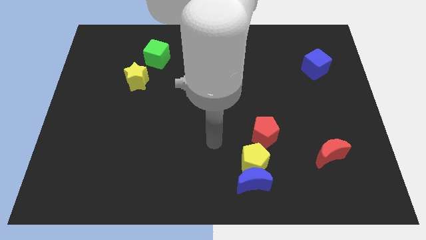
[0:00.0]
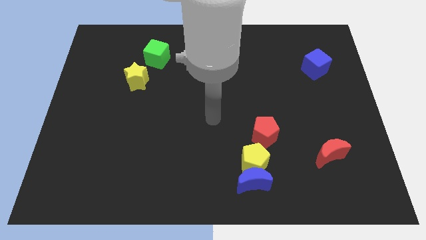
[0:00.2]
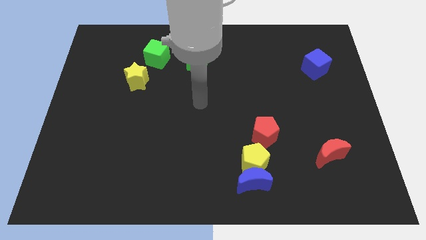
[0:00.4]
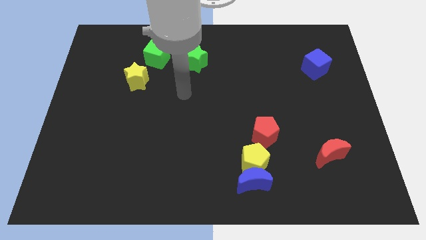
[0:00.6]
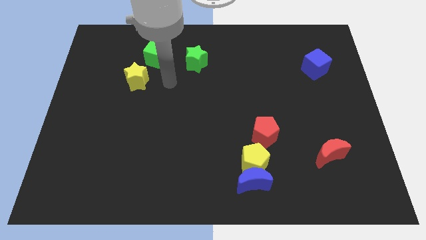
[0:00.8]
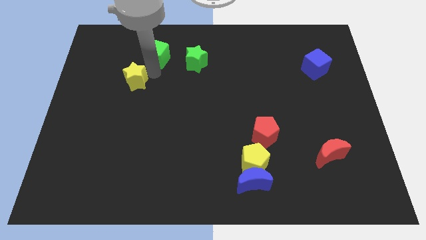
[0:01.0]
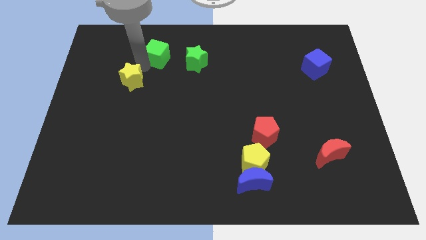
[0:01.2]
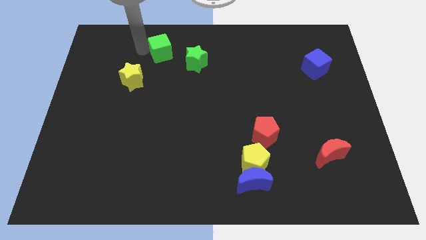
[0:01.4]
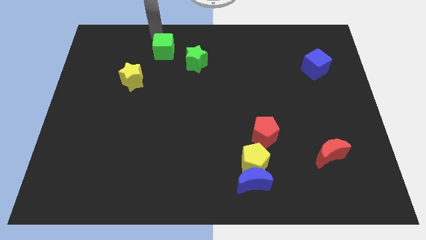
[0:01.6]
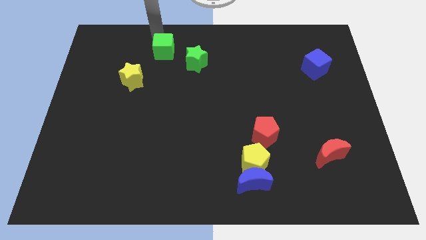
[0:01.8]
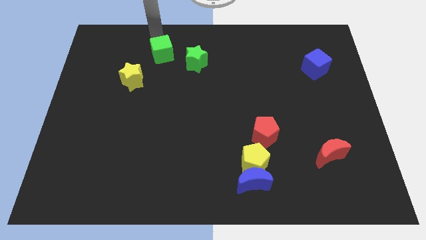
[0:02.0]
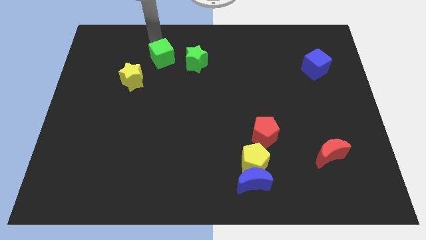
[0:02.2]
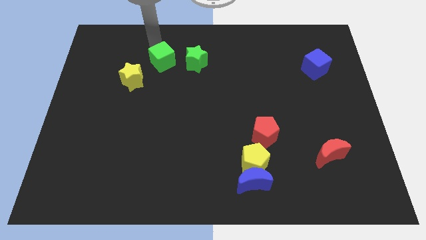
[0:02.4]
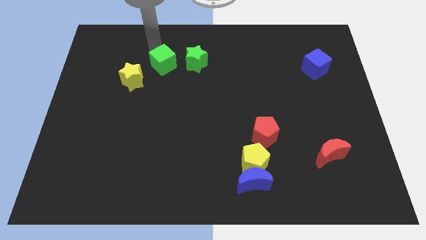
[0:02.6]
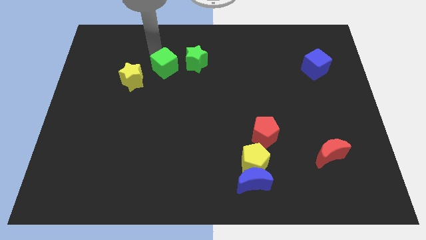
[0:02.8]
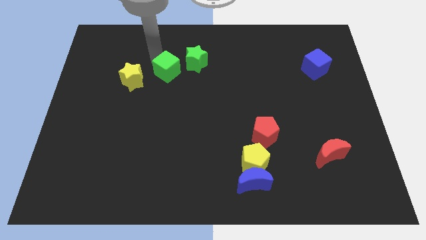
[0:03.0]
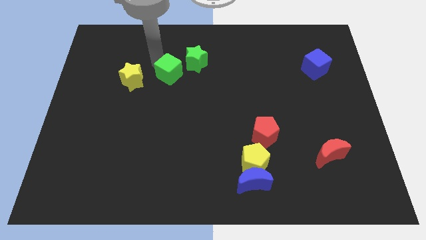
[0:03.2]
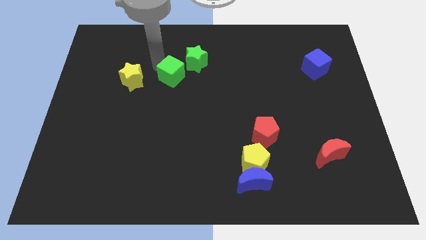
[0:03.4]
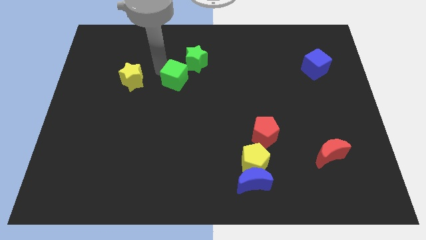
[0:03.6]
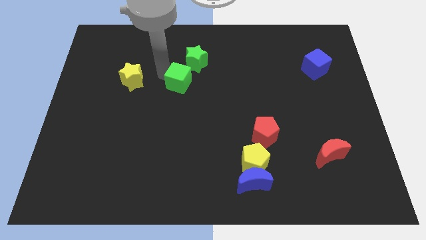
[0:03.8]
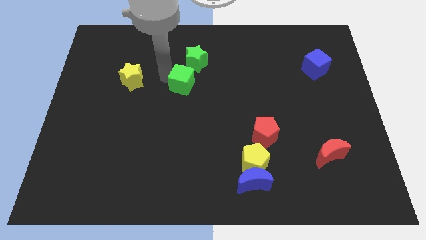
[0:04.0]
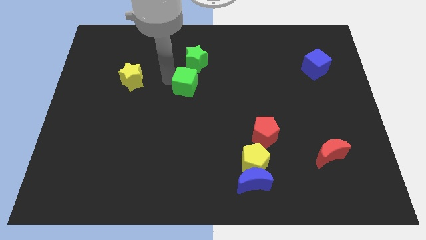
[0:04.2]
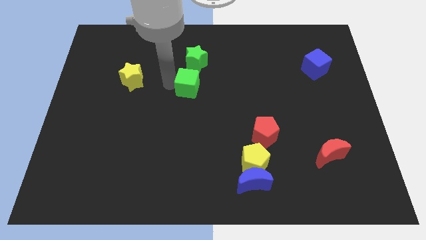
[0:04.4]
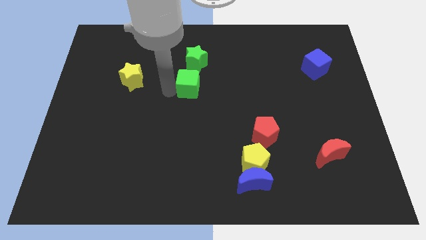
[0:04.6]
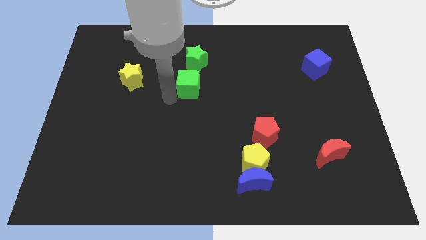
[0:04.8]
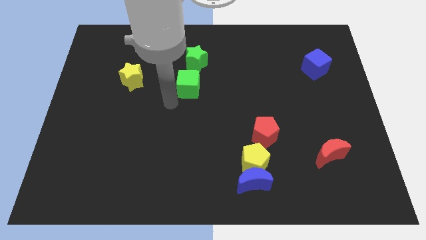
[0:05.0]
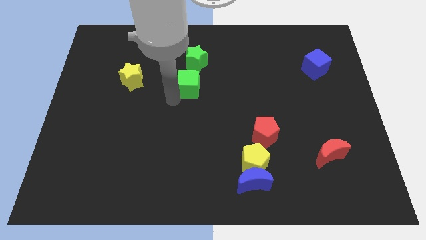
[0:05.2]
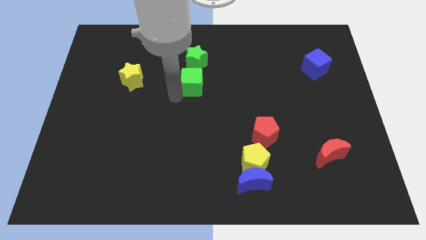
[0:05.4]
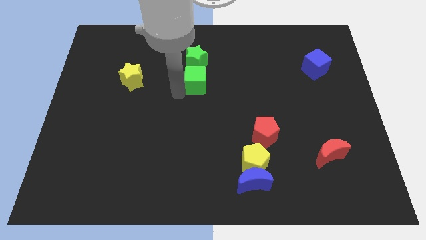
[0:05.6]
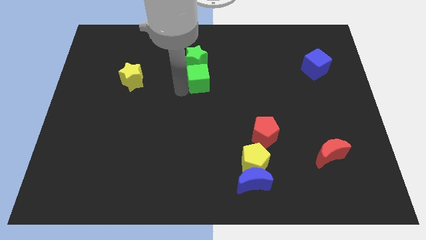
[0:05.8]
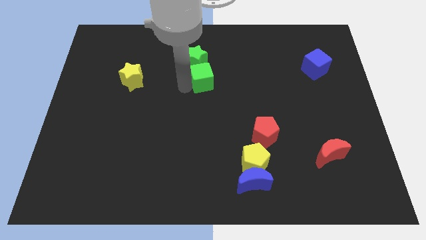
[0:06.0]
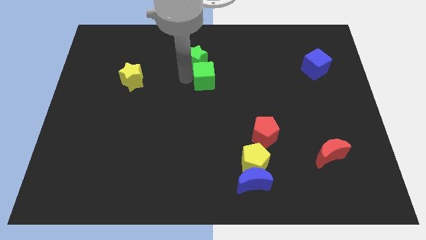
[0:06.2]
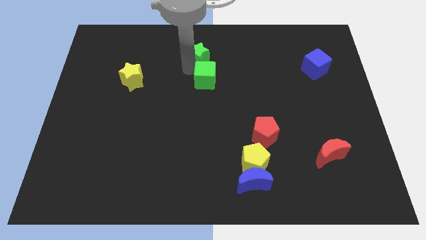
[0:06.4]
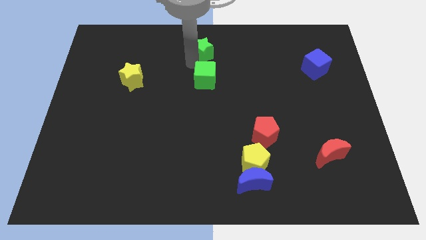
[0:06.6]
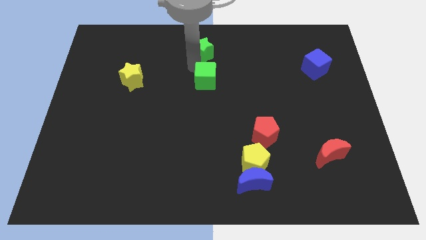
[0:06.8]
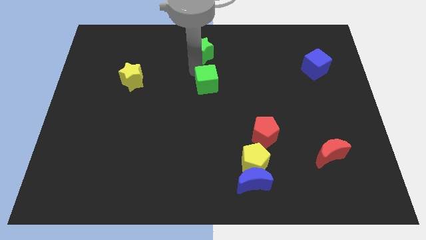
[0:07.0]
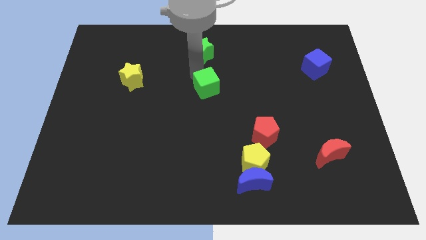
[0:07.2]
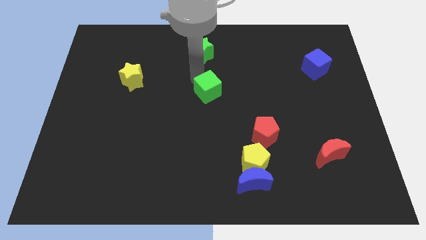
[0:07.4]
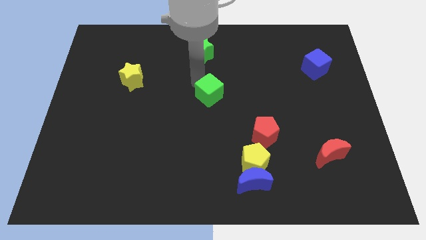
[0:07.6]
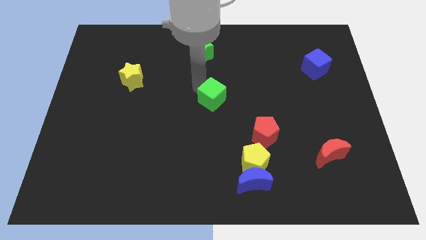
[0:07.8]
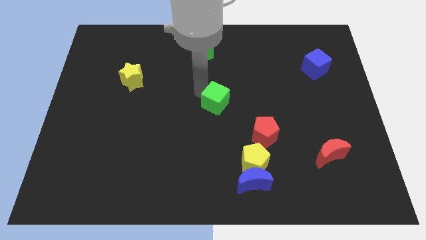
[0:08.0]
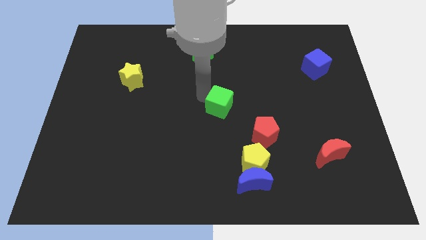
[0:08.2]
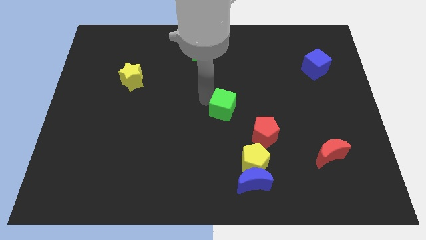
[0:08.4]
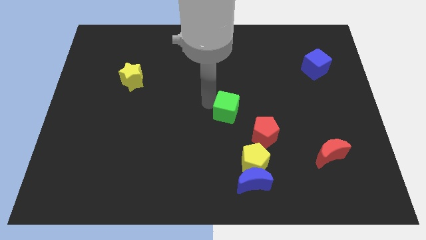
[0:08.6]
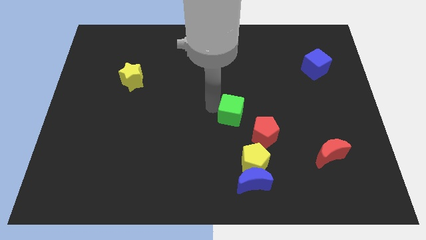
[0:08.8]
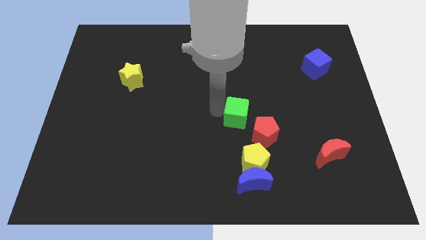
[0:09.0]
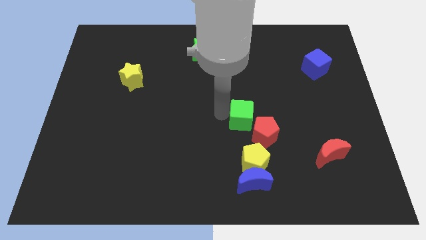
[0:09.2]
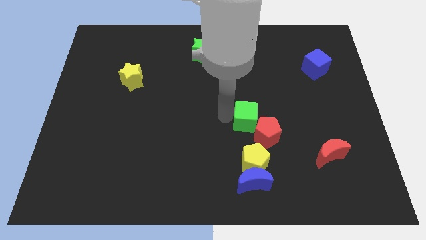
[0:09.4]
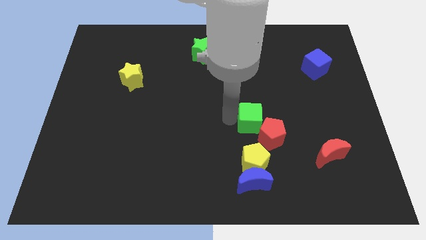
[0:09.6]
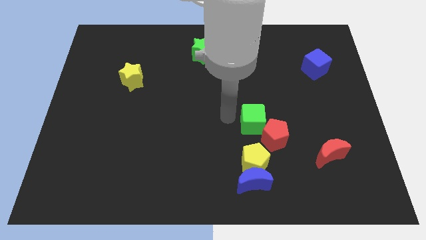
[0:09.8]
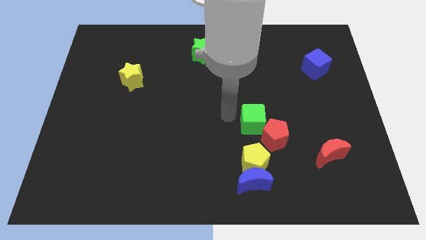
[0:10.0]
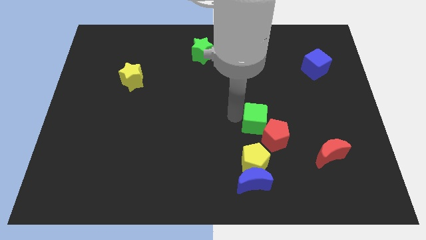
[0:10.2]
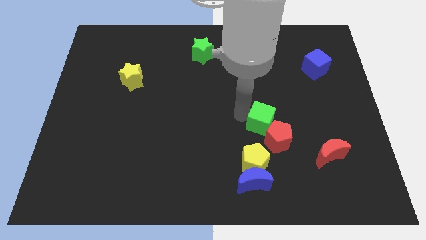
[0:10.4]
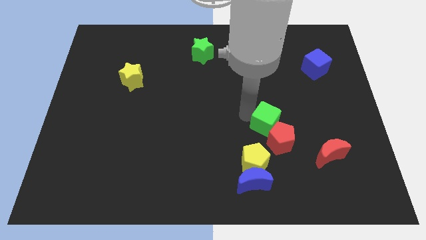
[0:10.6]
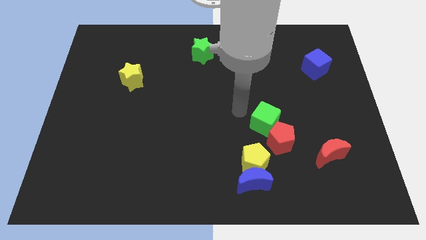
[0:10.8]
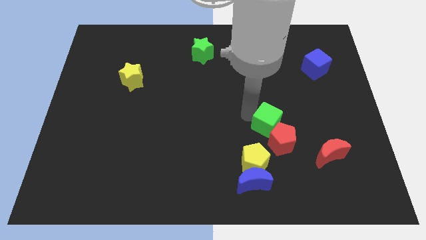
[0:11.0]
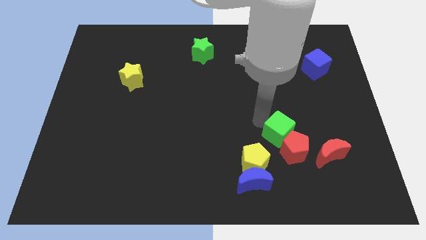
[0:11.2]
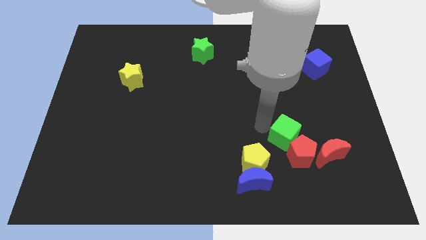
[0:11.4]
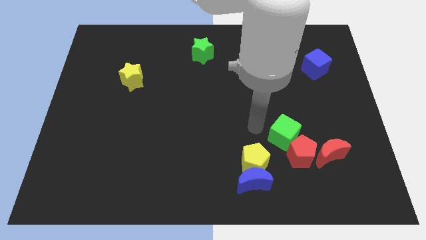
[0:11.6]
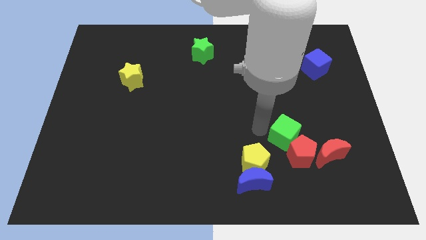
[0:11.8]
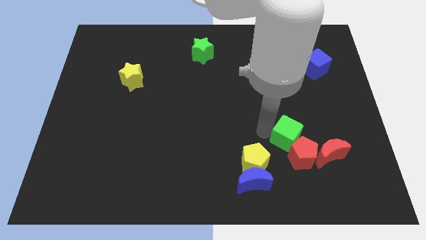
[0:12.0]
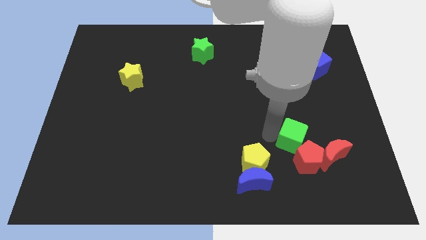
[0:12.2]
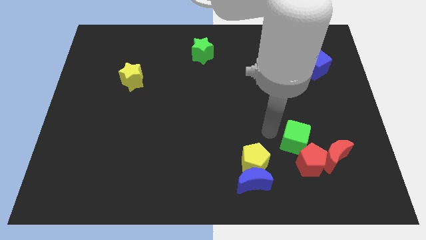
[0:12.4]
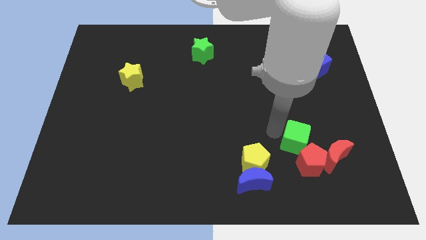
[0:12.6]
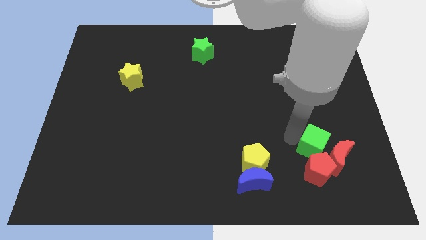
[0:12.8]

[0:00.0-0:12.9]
put the green cube to the red moon

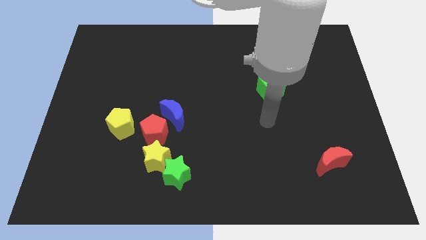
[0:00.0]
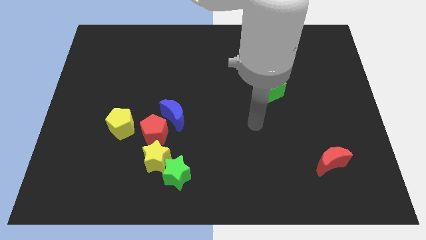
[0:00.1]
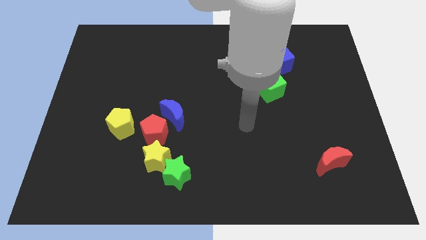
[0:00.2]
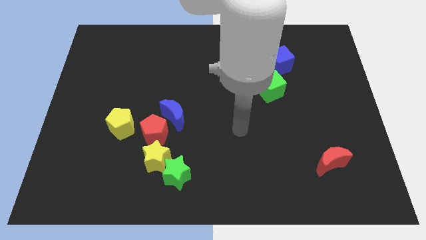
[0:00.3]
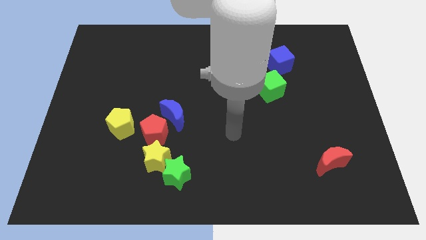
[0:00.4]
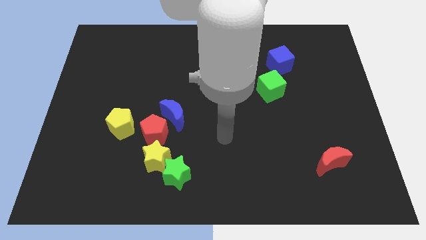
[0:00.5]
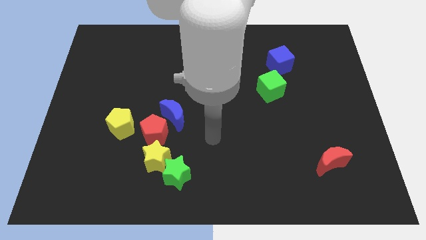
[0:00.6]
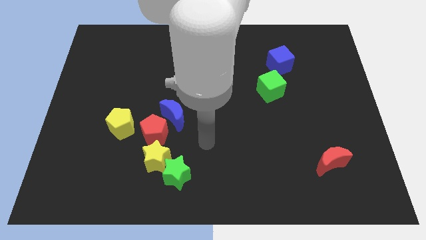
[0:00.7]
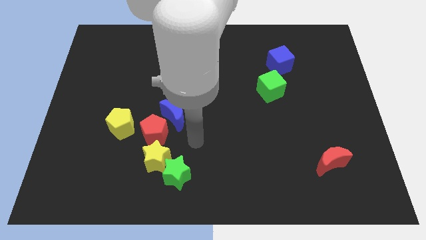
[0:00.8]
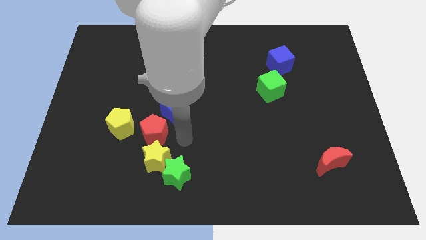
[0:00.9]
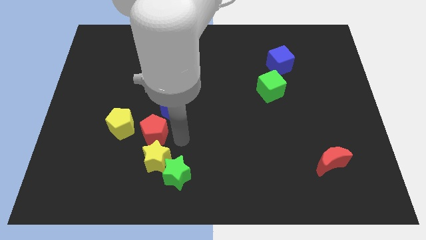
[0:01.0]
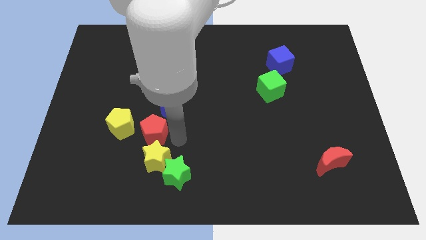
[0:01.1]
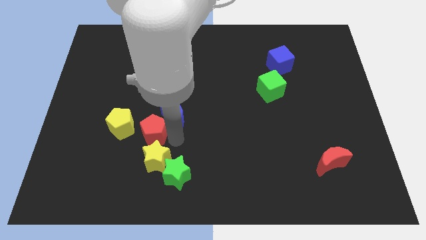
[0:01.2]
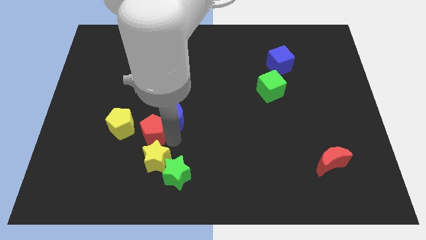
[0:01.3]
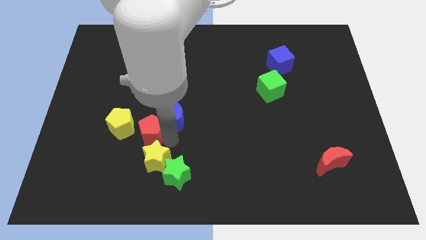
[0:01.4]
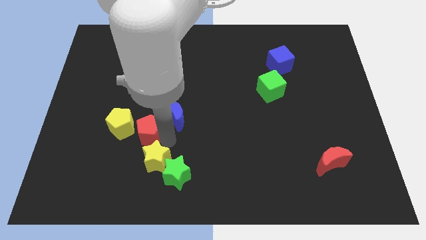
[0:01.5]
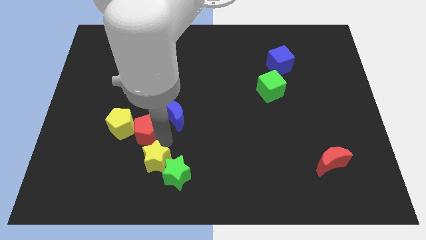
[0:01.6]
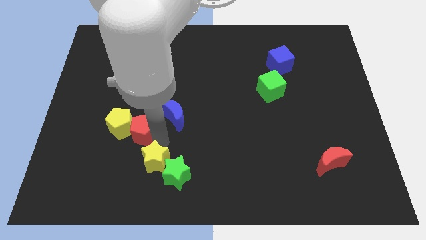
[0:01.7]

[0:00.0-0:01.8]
put the red pentagon next to the yellow pentagon
